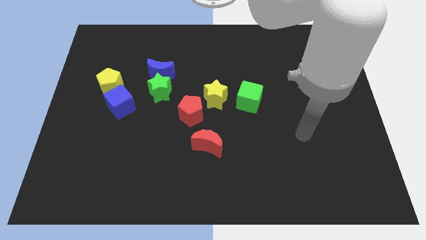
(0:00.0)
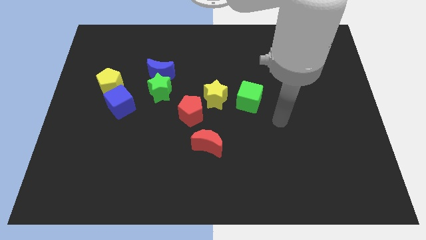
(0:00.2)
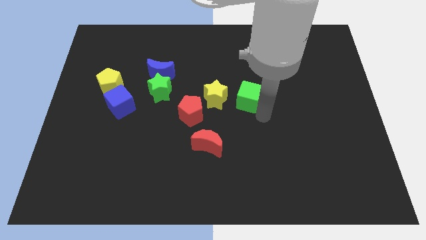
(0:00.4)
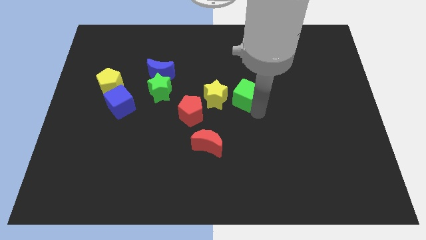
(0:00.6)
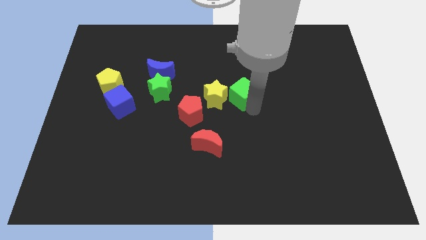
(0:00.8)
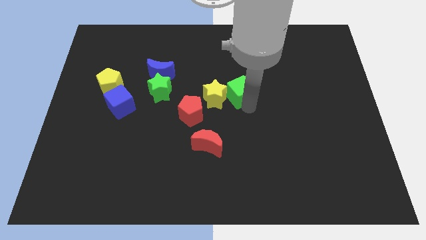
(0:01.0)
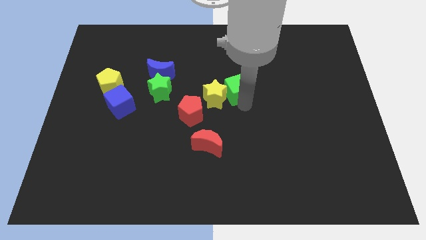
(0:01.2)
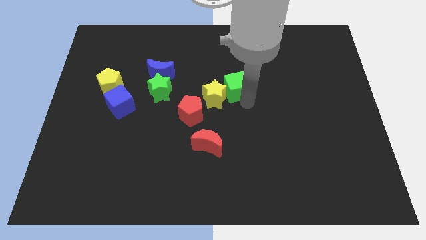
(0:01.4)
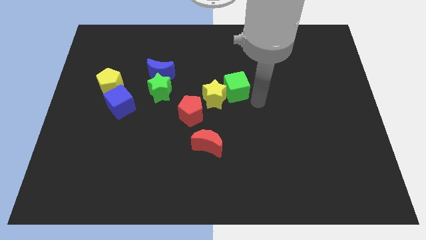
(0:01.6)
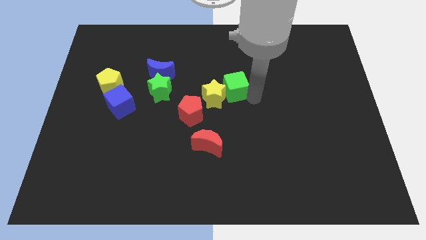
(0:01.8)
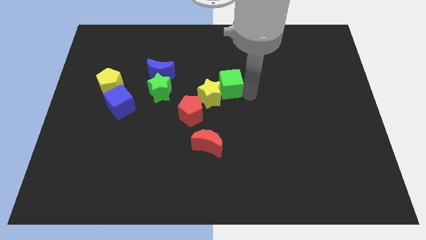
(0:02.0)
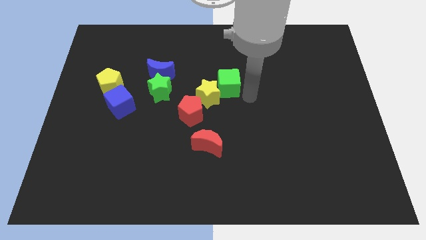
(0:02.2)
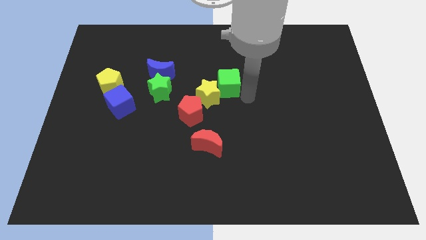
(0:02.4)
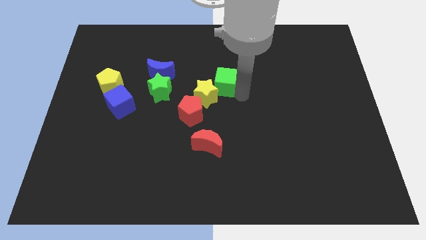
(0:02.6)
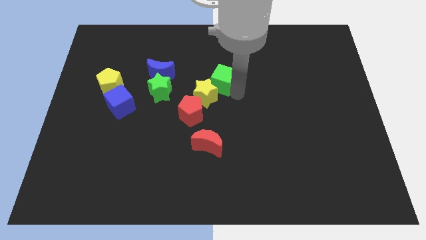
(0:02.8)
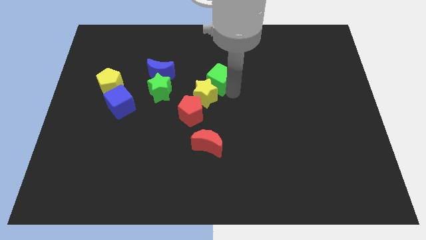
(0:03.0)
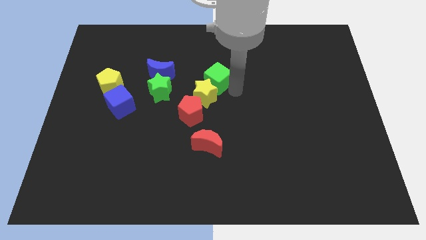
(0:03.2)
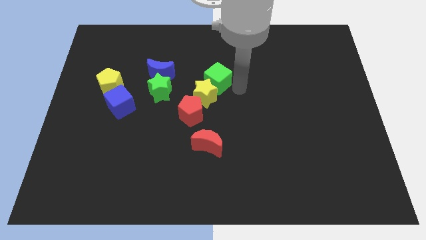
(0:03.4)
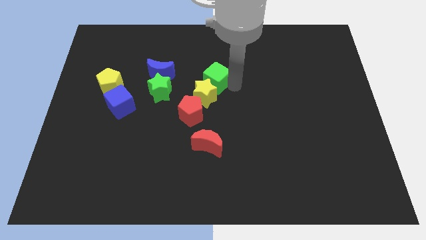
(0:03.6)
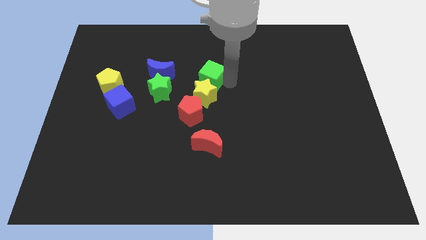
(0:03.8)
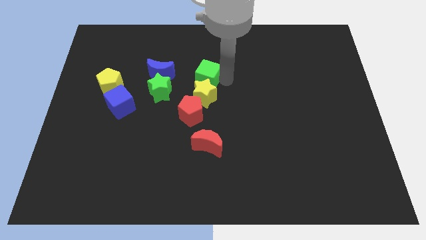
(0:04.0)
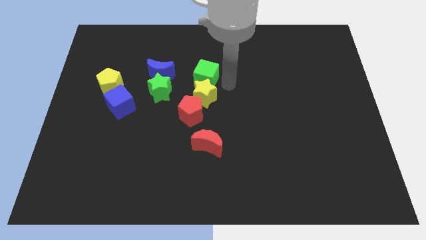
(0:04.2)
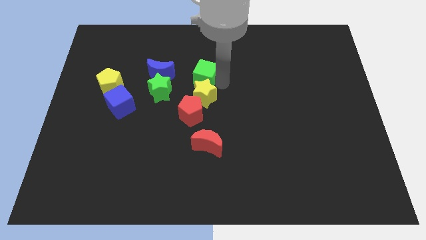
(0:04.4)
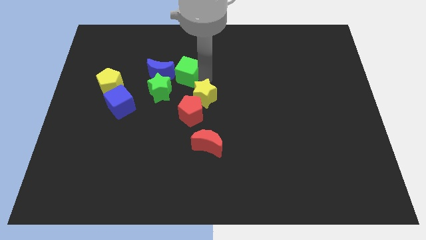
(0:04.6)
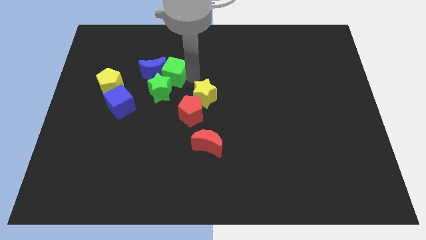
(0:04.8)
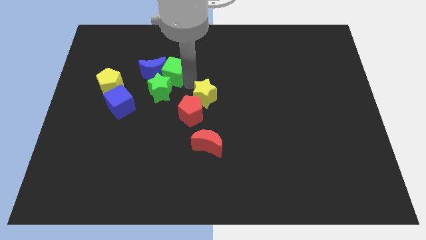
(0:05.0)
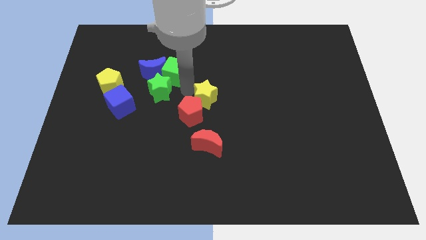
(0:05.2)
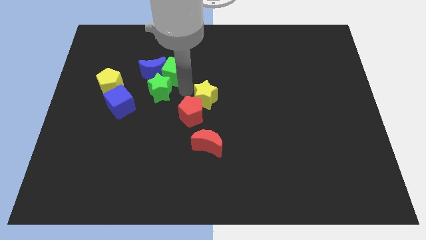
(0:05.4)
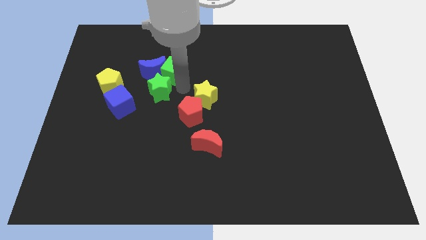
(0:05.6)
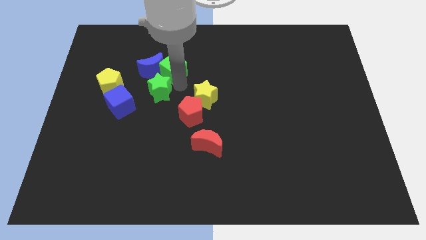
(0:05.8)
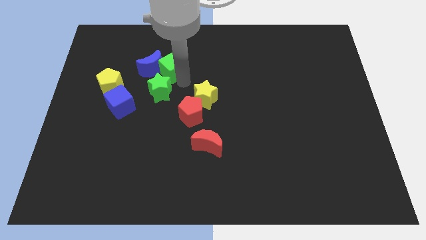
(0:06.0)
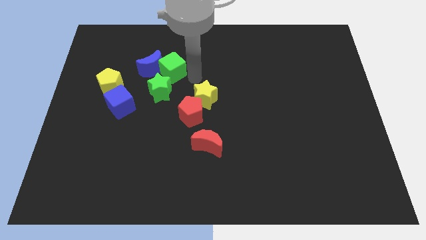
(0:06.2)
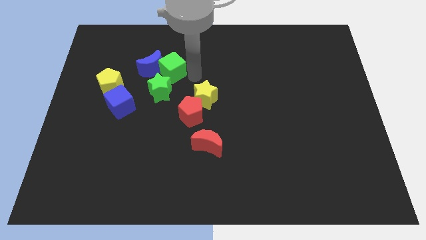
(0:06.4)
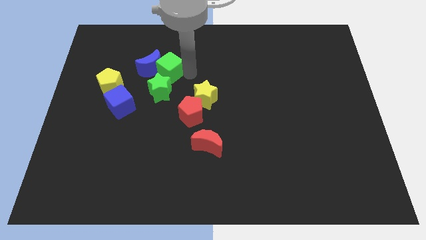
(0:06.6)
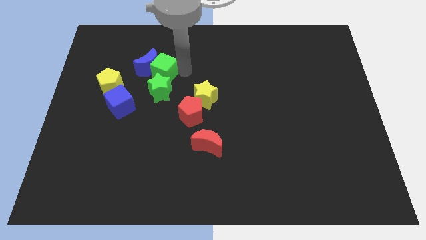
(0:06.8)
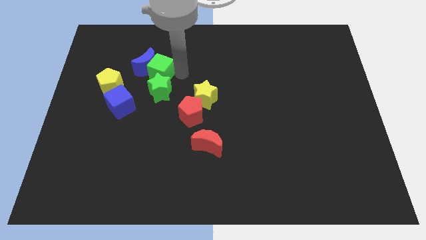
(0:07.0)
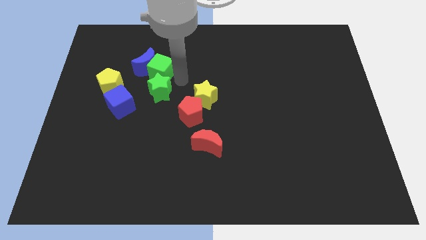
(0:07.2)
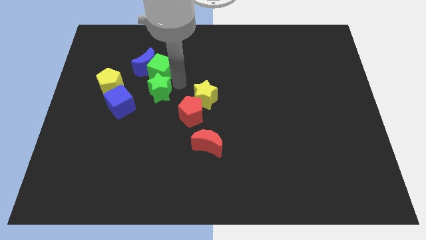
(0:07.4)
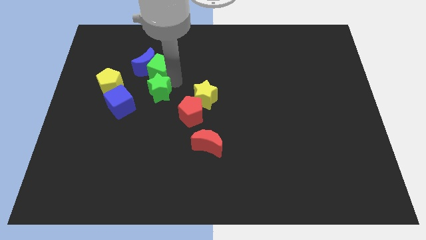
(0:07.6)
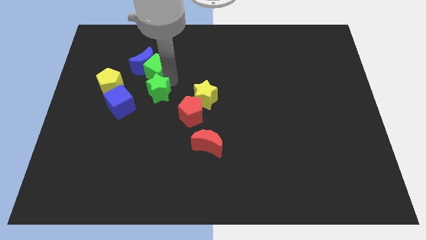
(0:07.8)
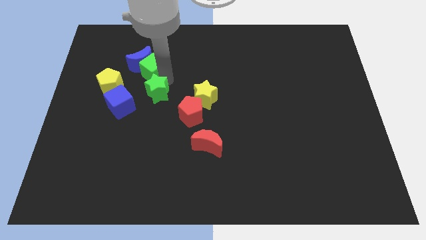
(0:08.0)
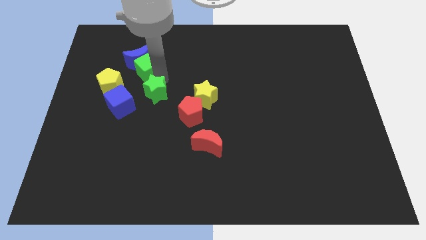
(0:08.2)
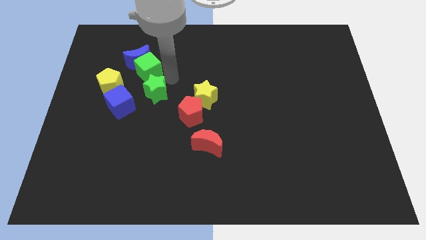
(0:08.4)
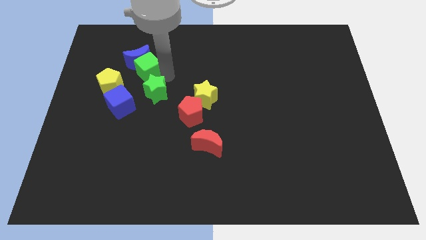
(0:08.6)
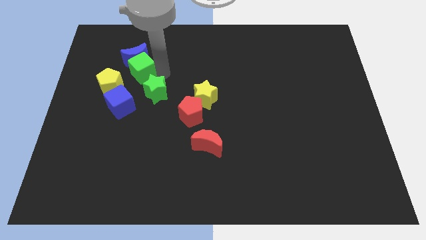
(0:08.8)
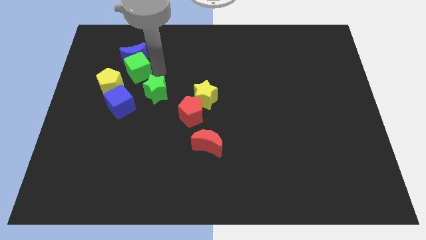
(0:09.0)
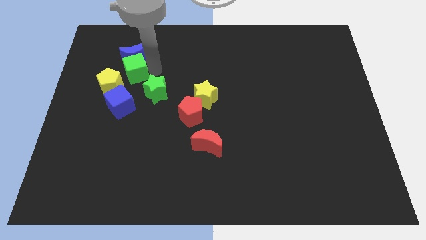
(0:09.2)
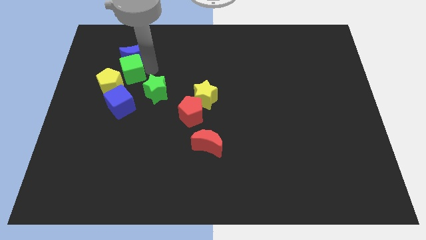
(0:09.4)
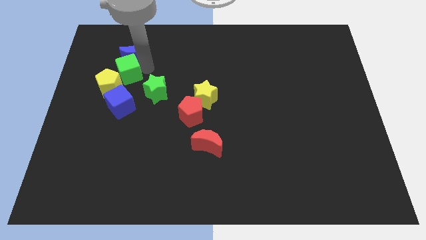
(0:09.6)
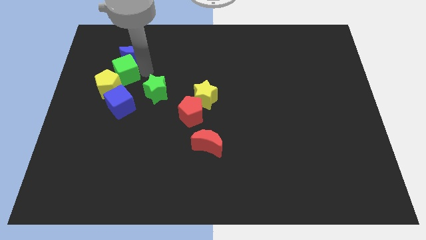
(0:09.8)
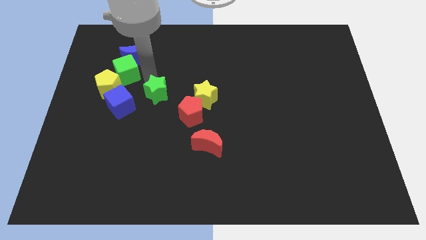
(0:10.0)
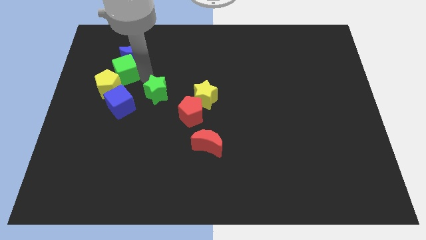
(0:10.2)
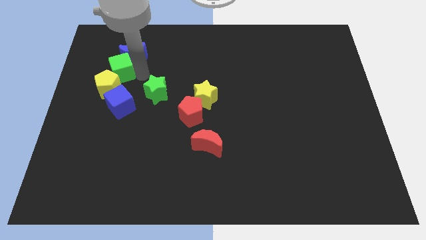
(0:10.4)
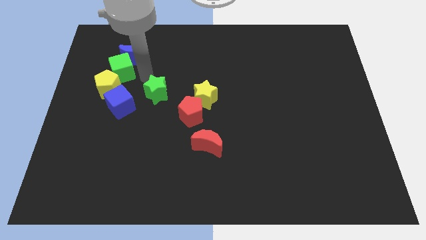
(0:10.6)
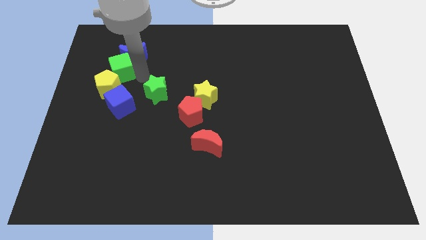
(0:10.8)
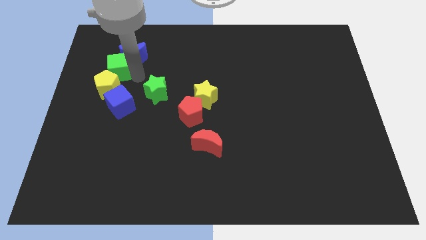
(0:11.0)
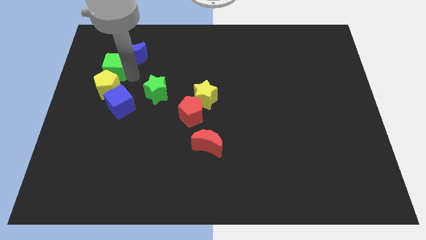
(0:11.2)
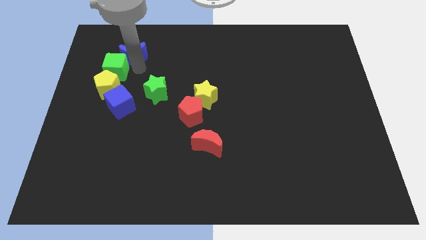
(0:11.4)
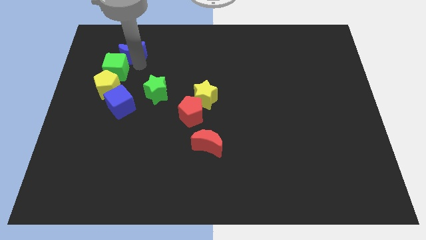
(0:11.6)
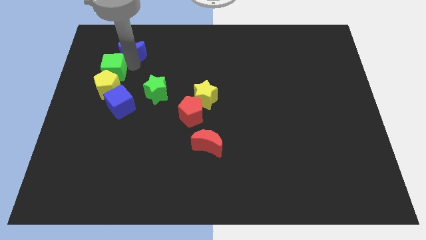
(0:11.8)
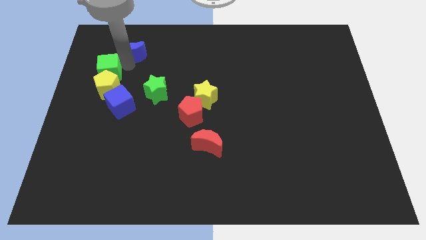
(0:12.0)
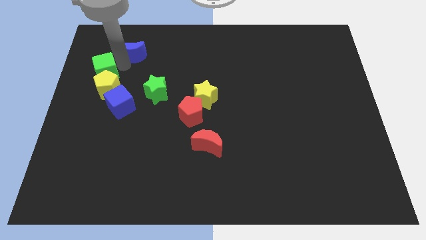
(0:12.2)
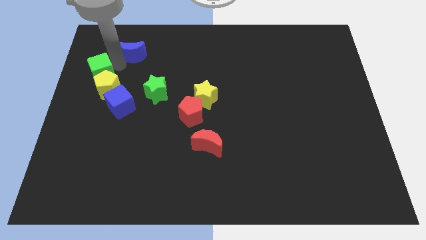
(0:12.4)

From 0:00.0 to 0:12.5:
push the green cube to the left side of the board

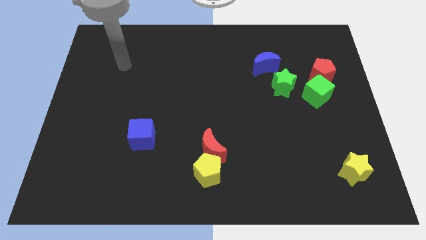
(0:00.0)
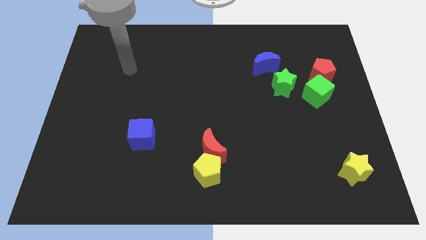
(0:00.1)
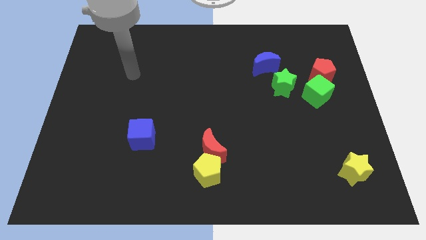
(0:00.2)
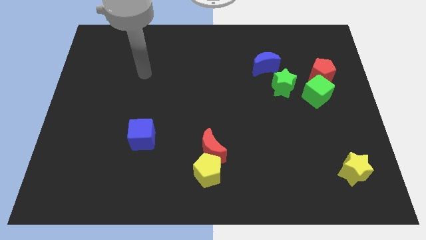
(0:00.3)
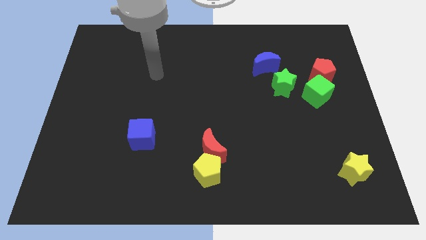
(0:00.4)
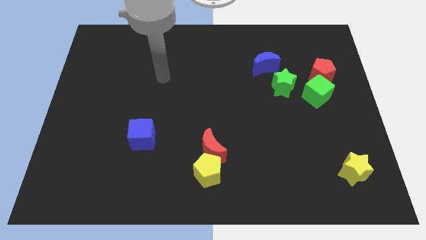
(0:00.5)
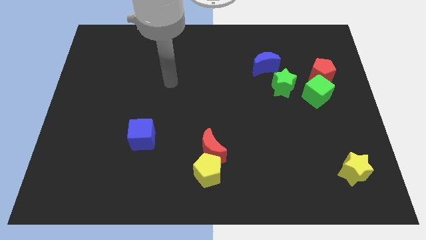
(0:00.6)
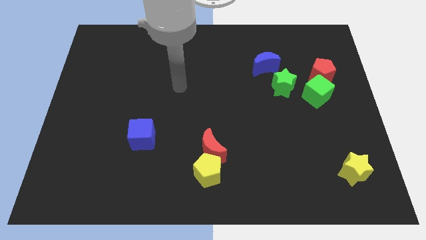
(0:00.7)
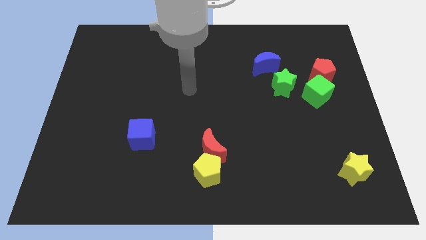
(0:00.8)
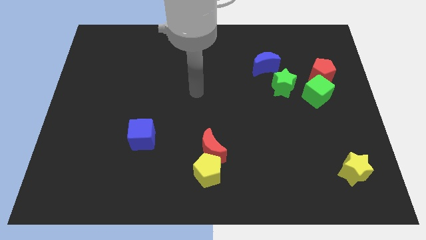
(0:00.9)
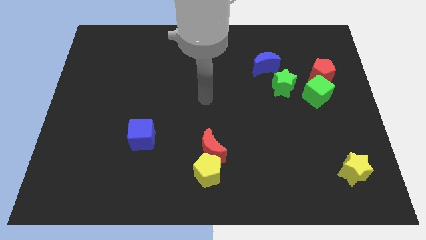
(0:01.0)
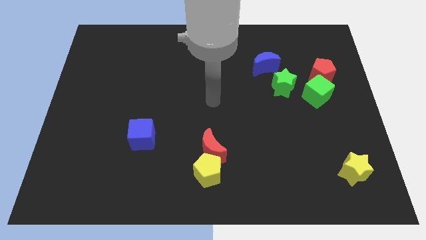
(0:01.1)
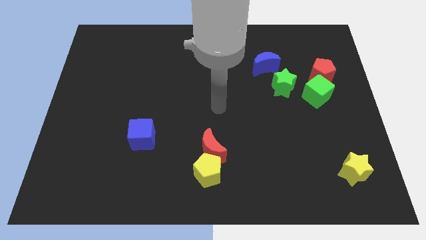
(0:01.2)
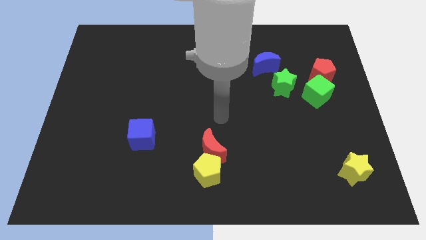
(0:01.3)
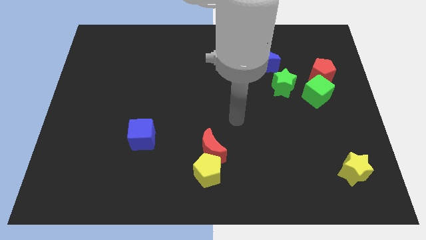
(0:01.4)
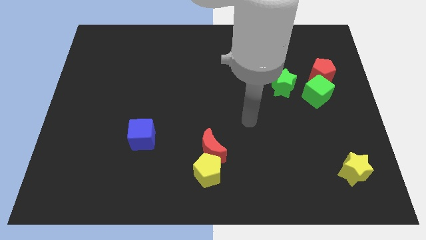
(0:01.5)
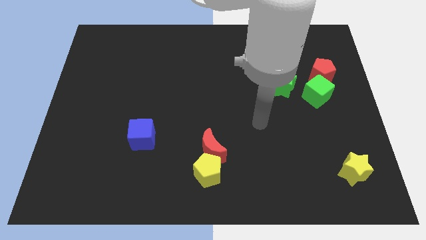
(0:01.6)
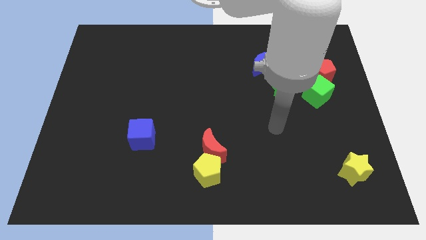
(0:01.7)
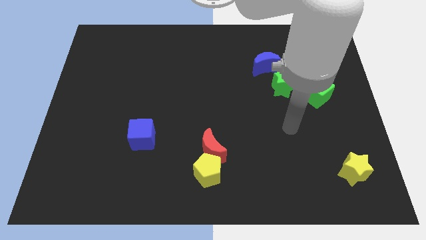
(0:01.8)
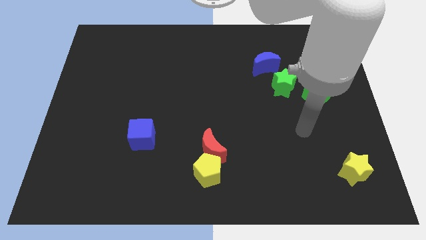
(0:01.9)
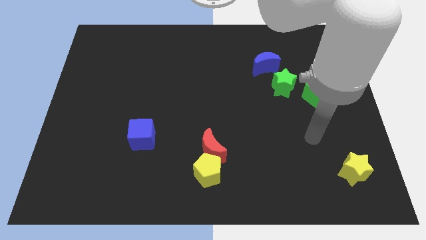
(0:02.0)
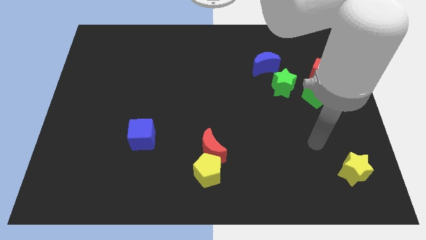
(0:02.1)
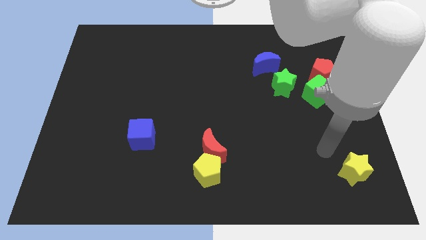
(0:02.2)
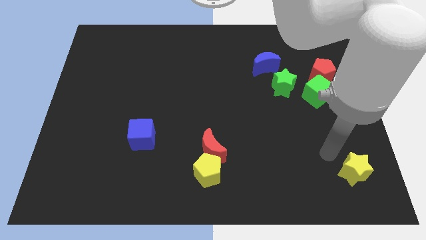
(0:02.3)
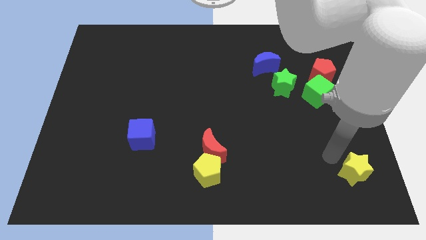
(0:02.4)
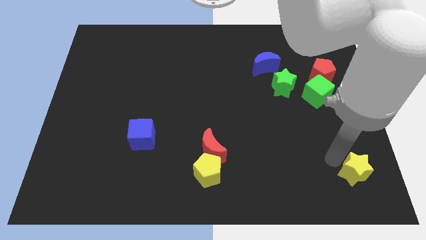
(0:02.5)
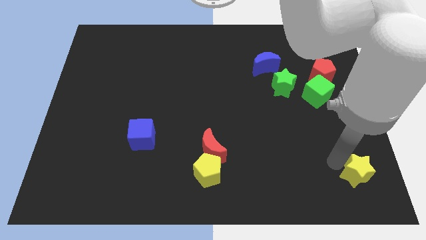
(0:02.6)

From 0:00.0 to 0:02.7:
put the yellow star to the lower right corner
